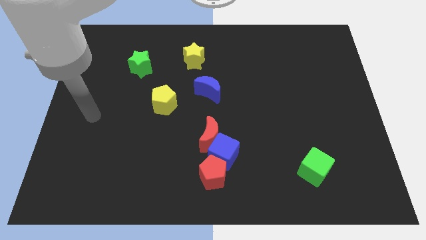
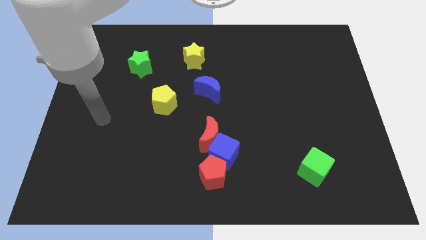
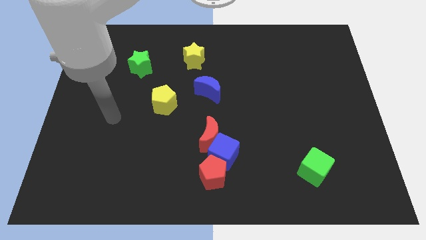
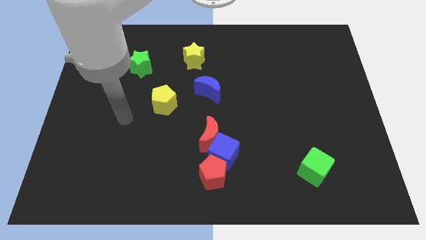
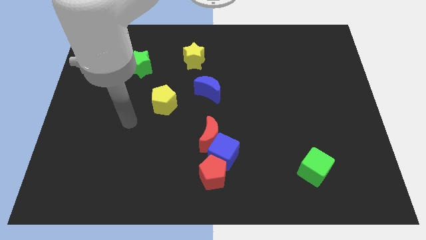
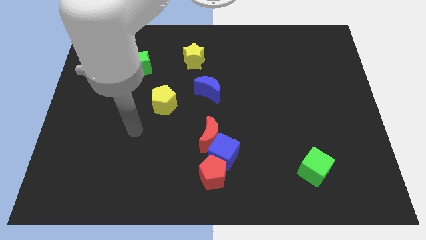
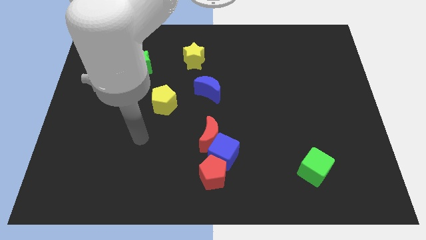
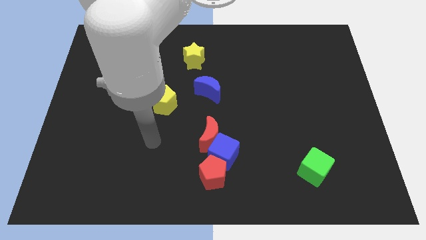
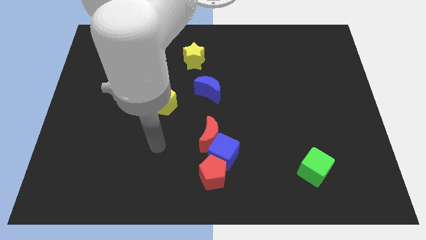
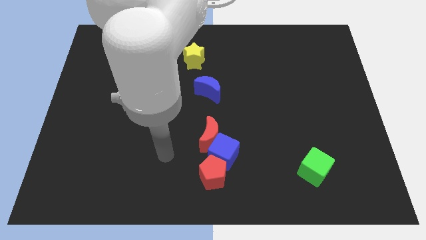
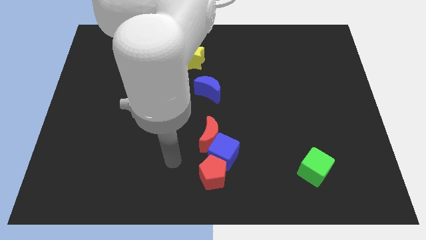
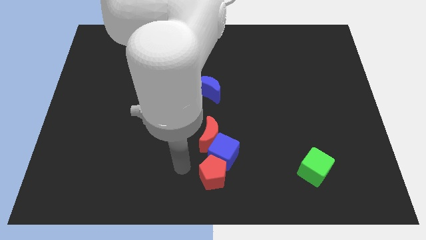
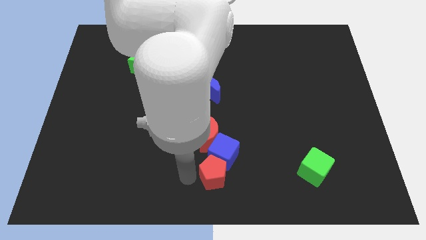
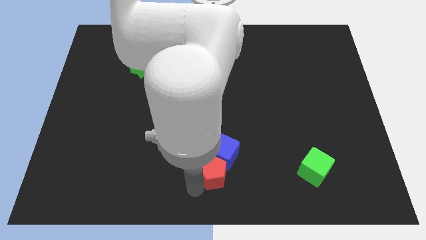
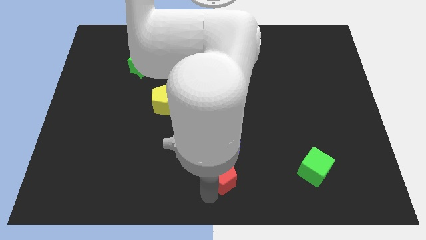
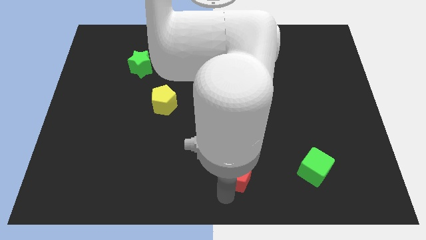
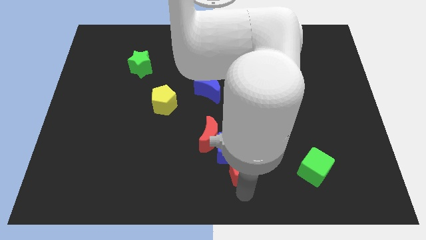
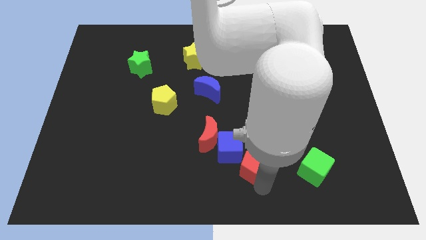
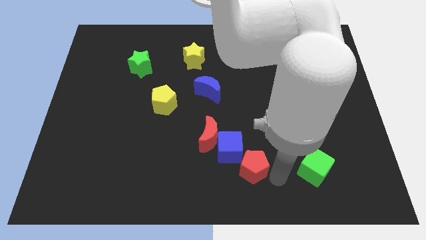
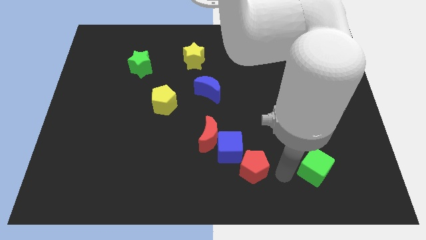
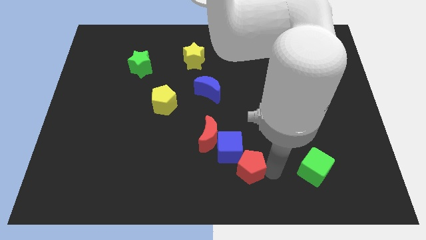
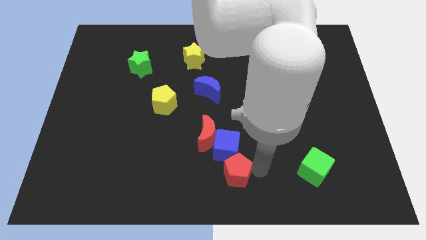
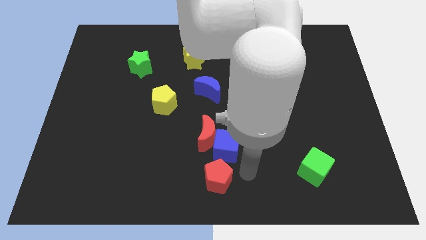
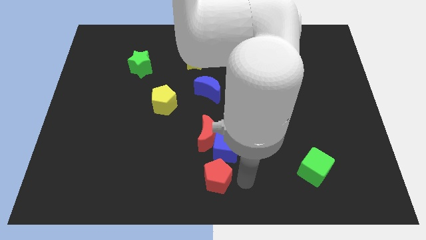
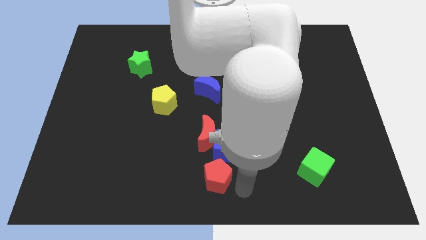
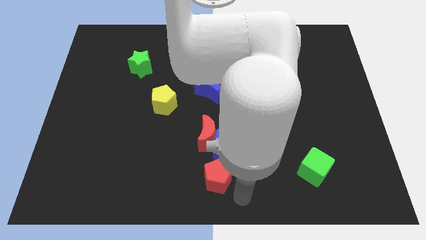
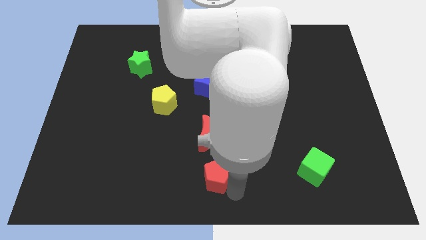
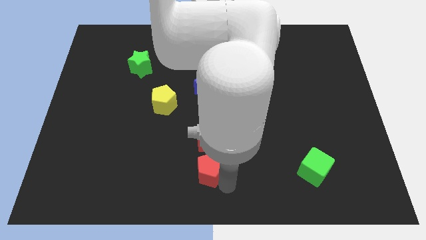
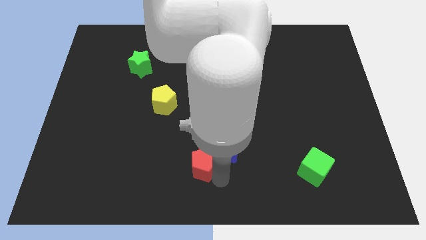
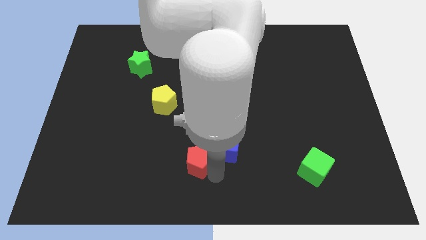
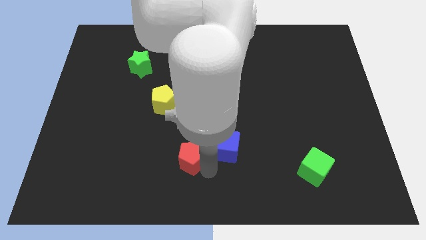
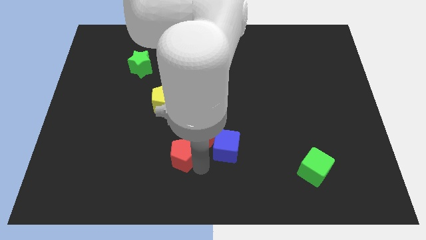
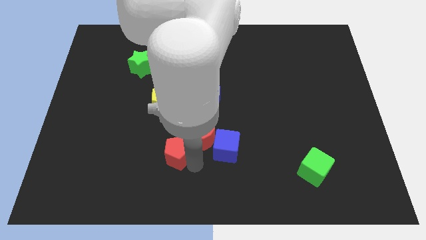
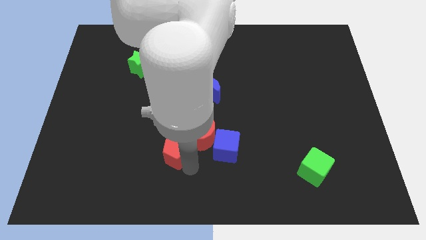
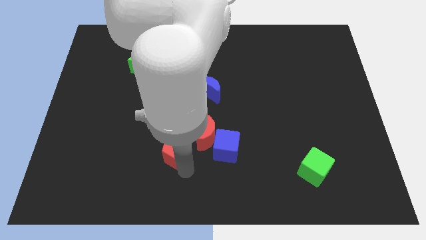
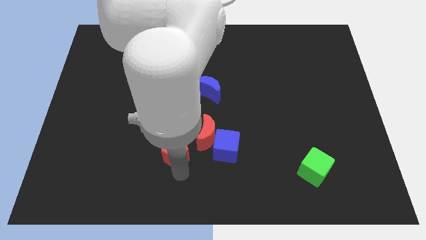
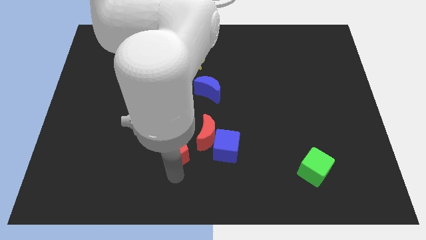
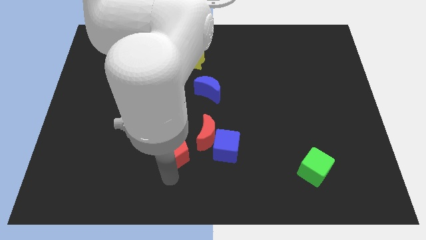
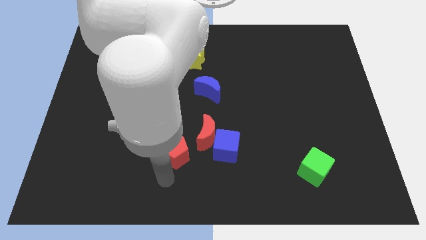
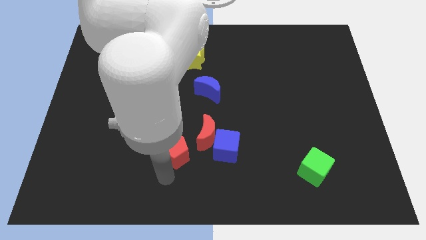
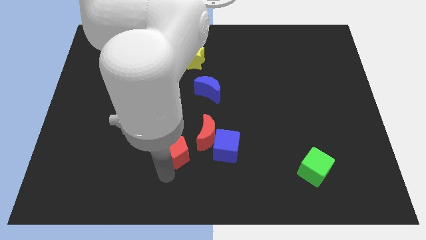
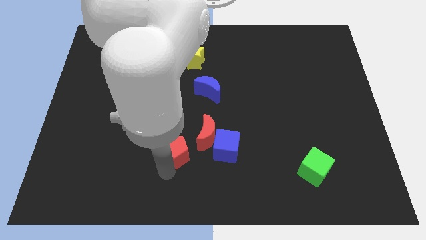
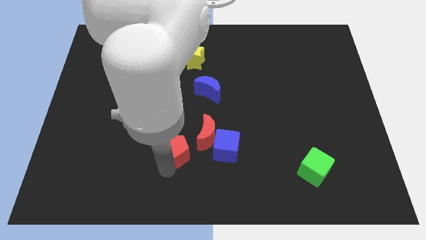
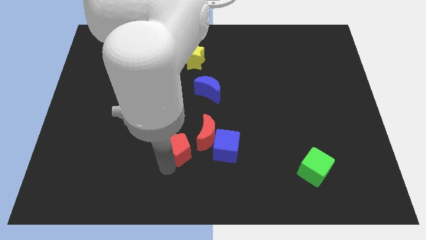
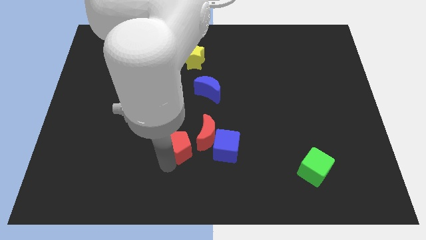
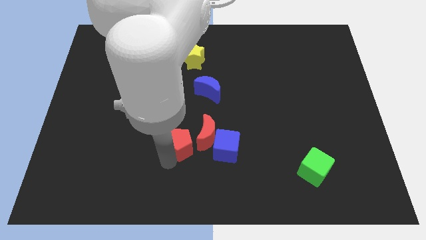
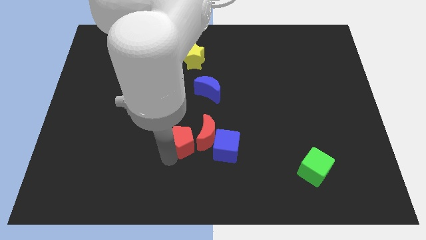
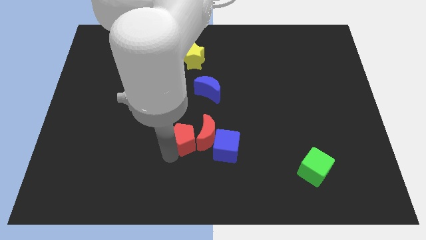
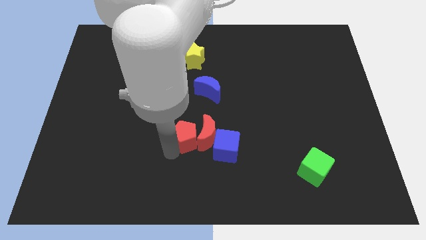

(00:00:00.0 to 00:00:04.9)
push the red pentagon to the bottom right of the yellow pentagon

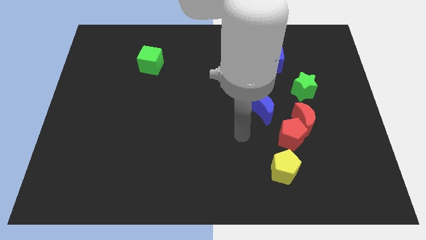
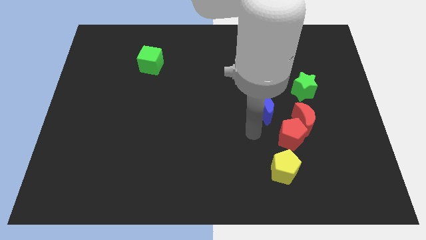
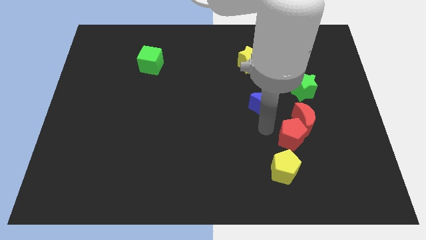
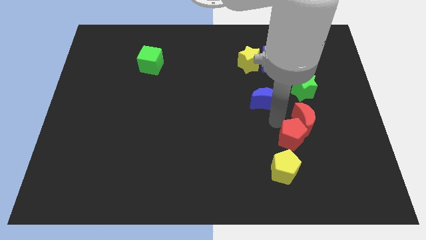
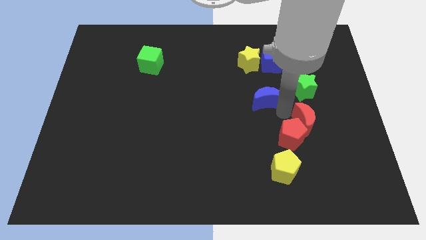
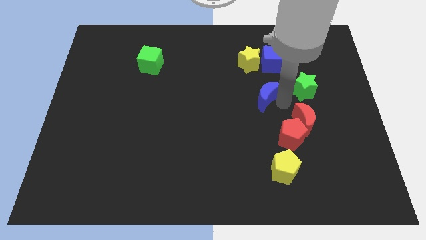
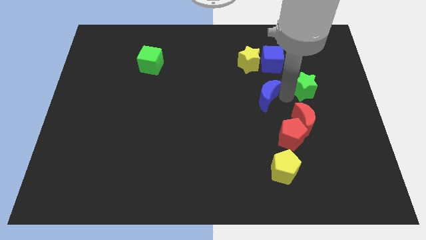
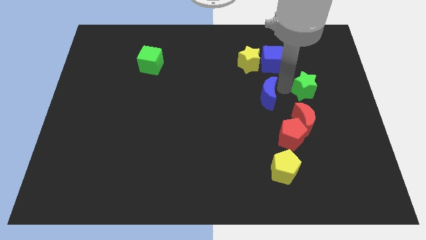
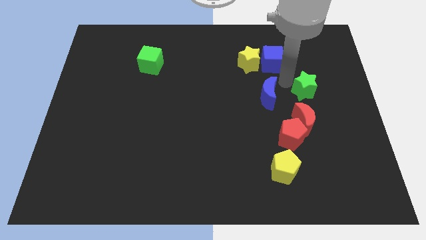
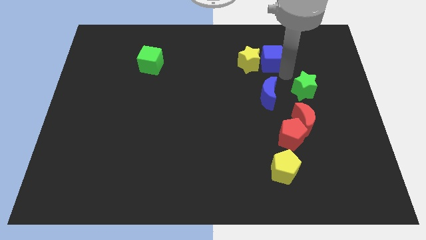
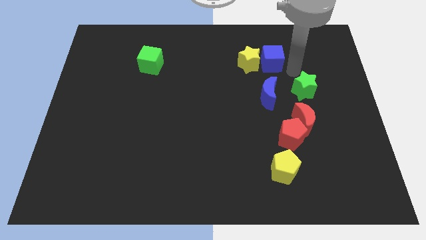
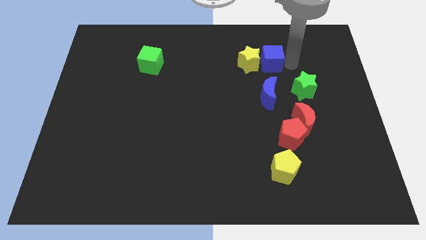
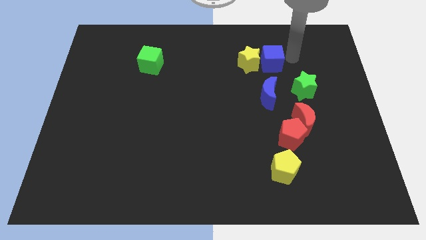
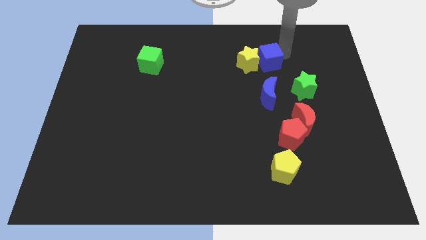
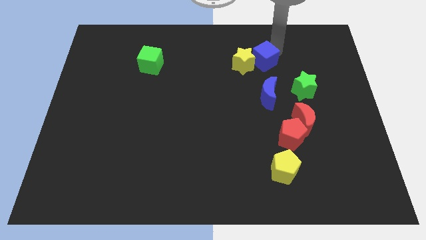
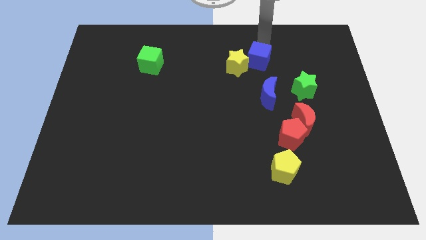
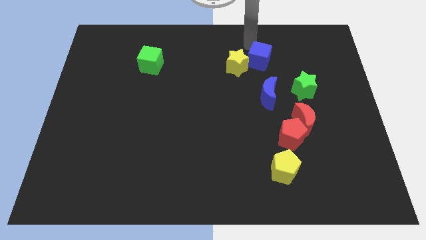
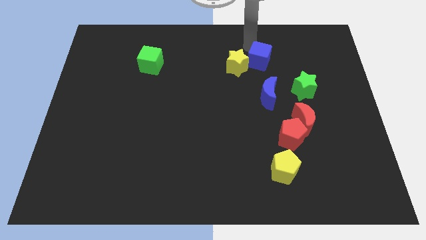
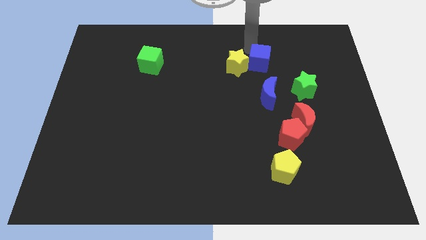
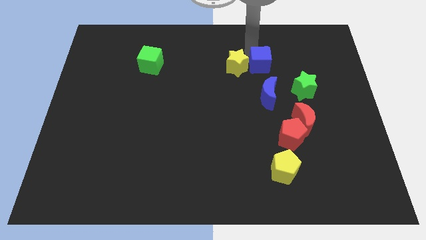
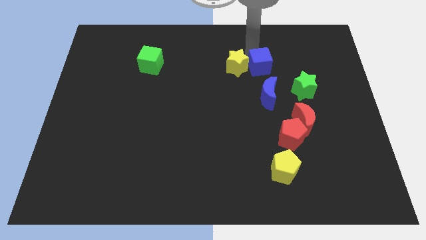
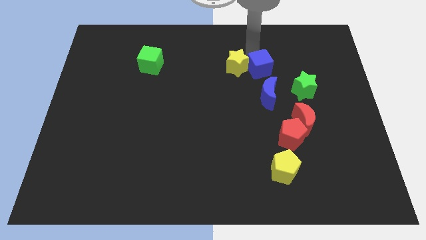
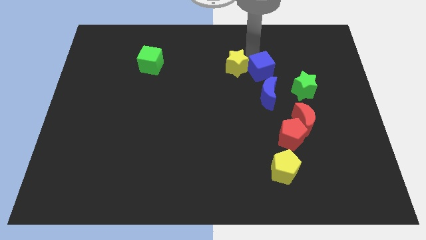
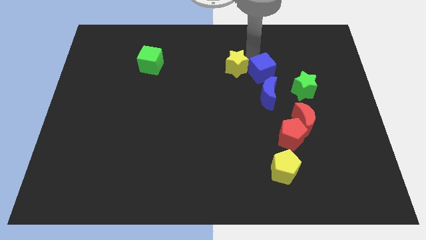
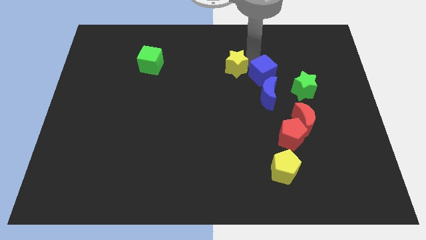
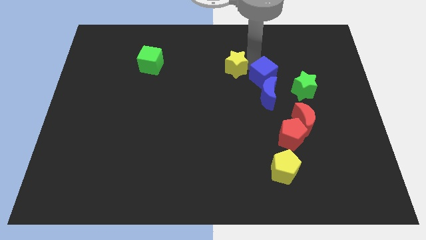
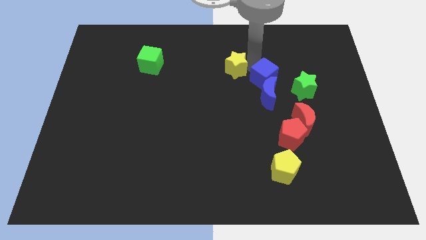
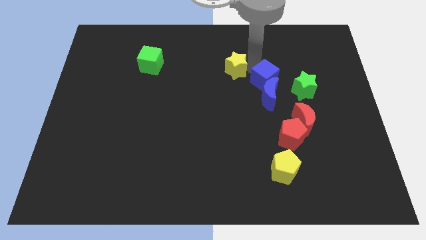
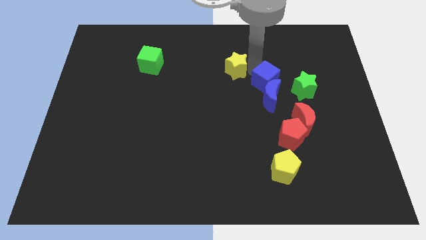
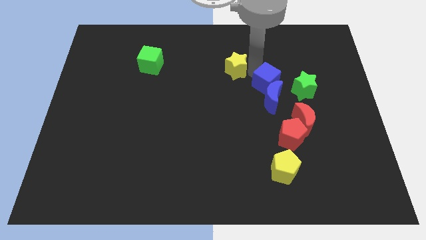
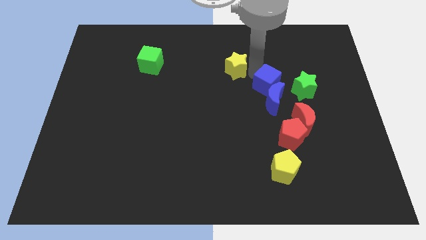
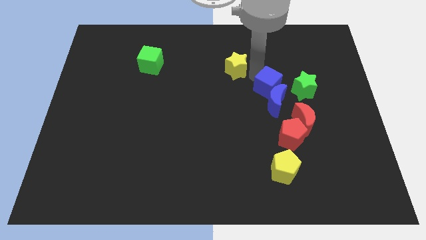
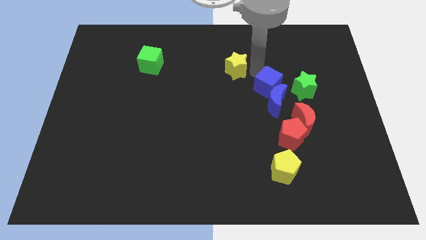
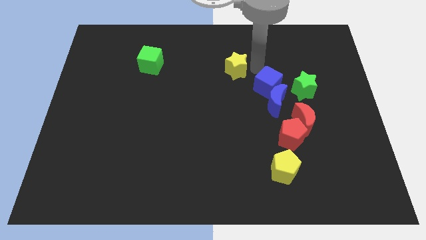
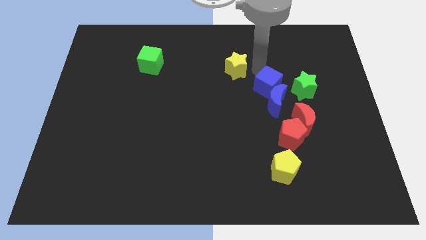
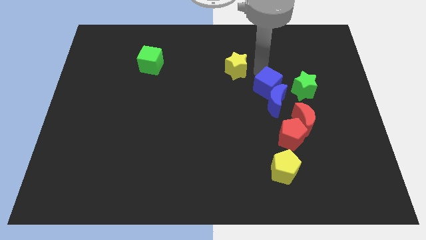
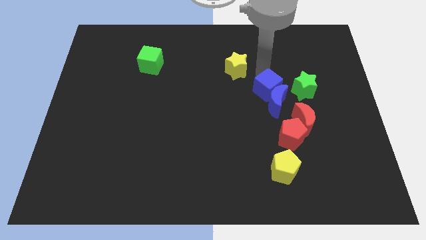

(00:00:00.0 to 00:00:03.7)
push the blue cube to the top left of the red moon
